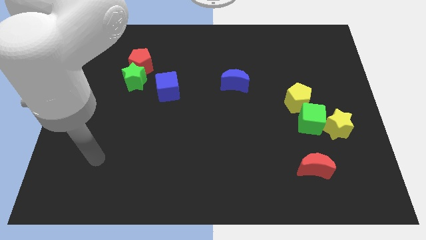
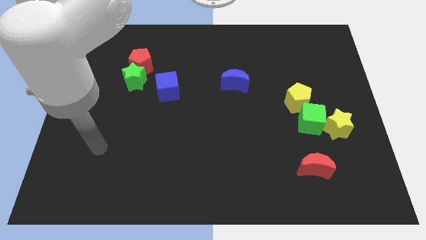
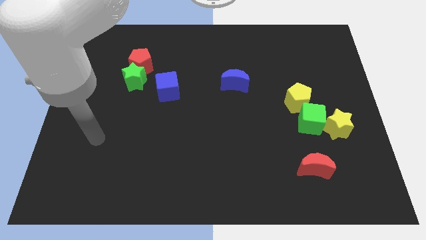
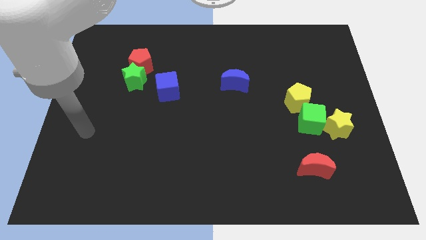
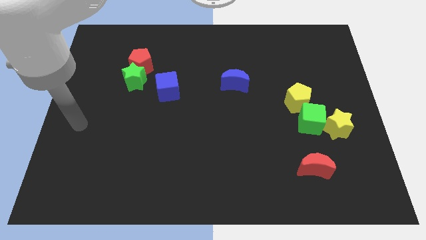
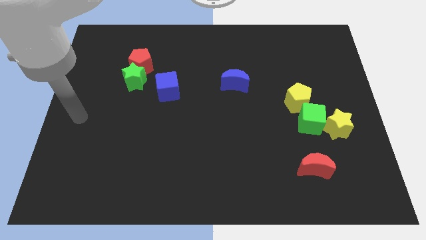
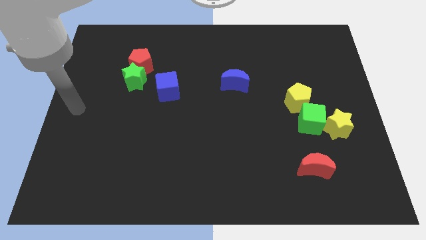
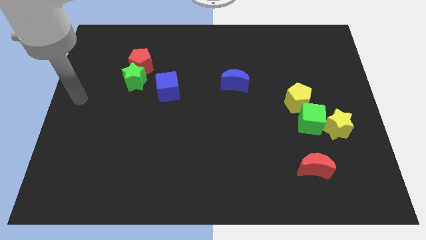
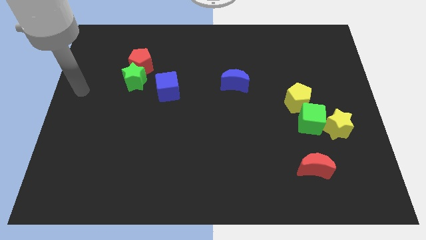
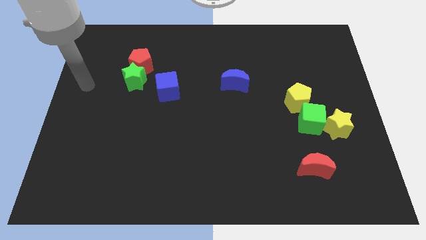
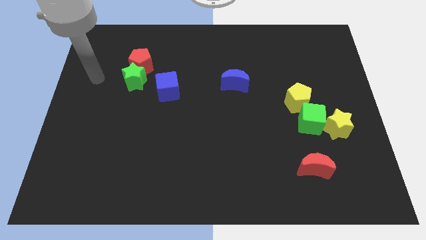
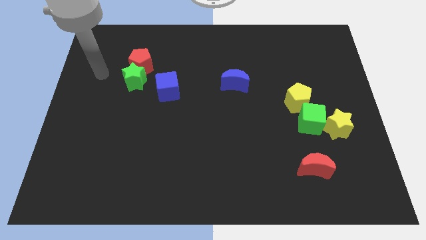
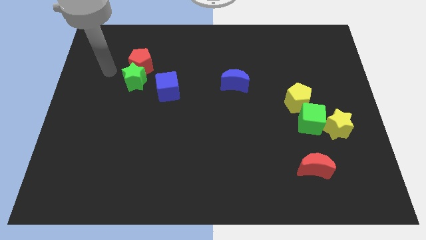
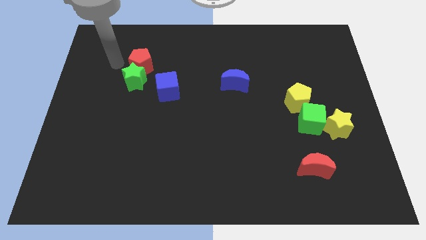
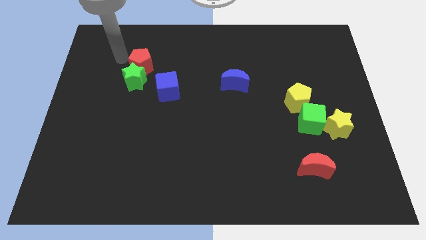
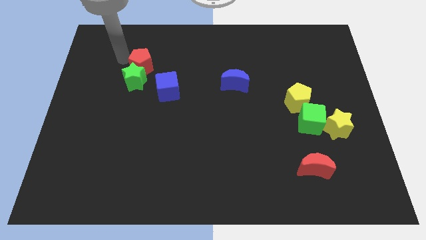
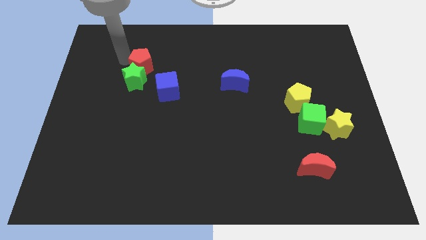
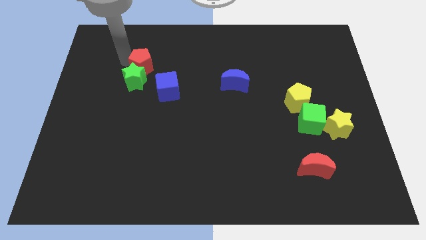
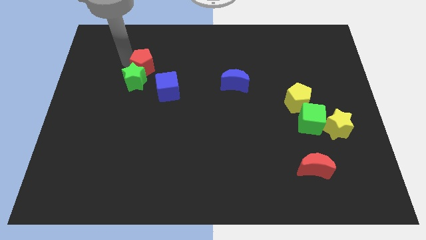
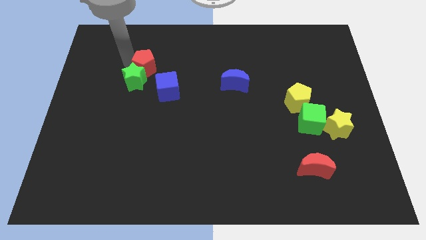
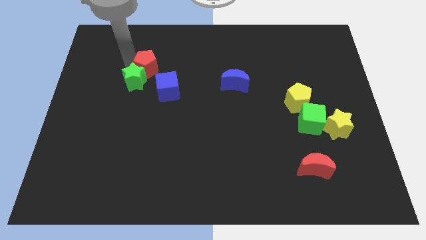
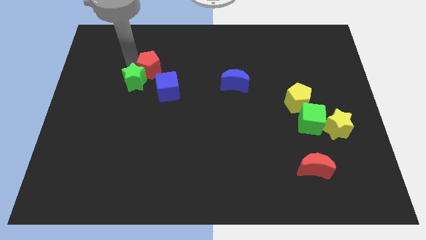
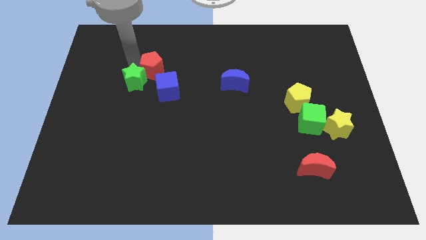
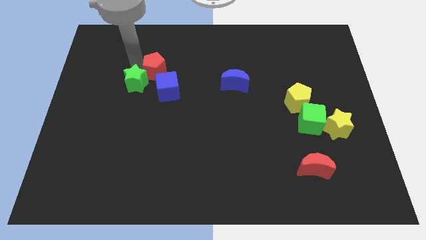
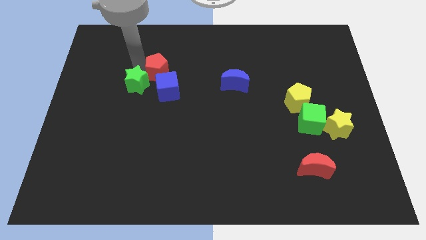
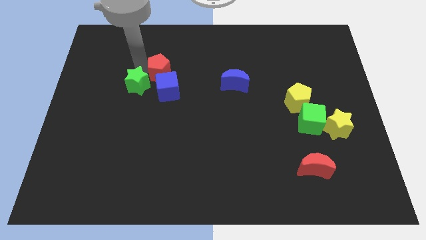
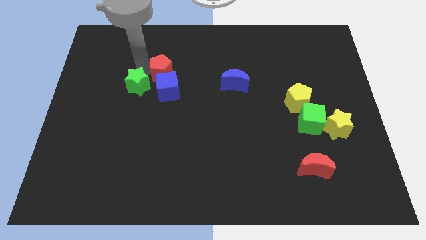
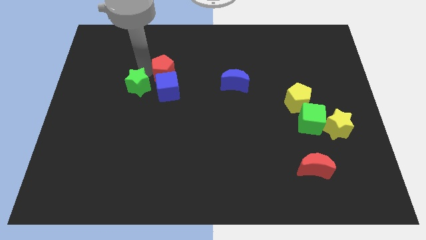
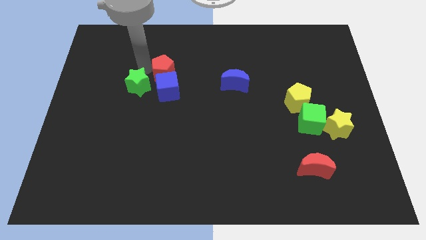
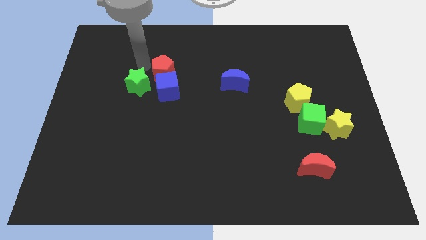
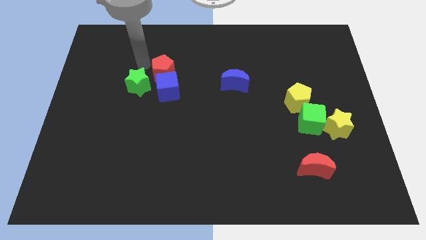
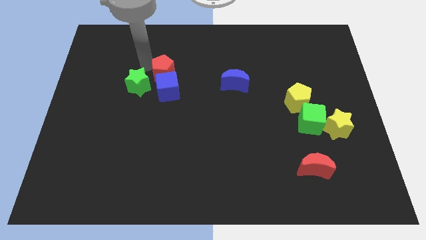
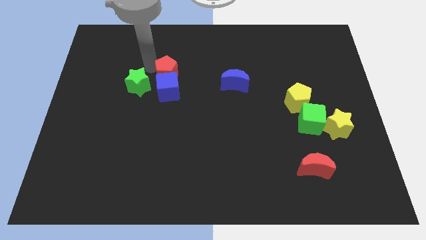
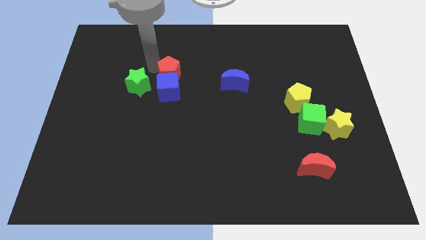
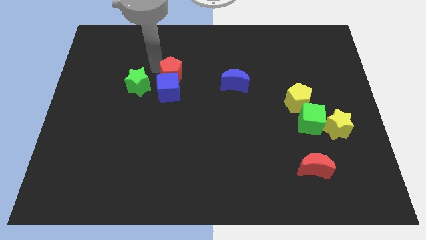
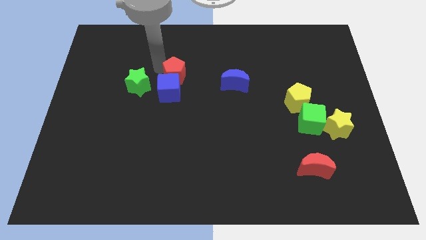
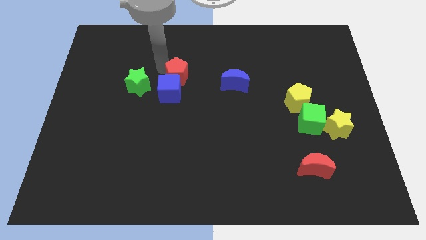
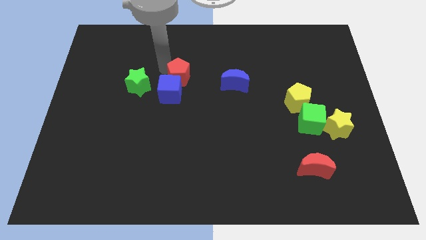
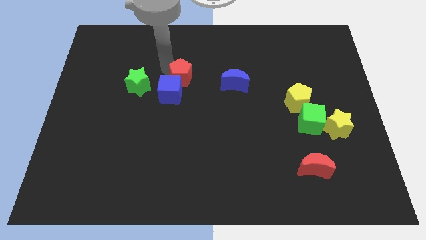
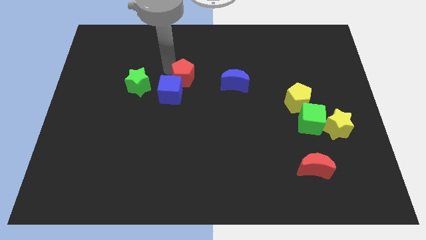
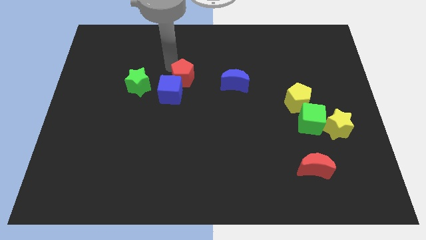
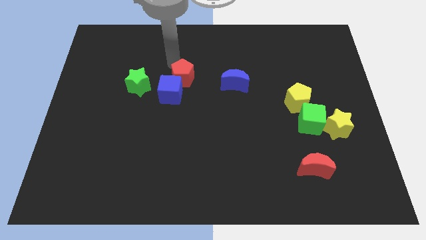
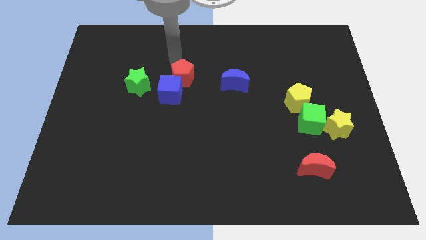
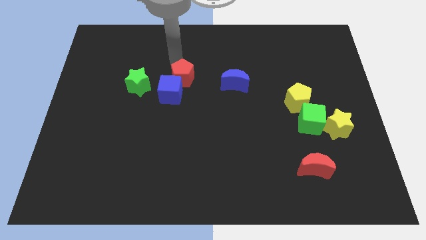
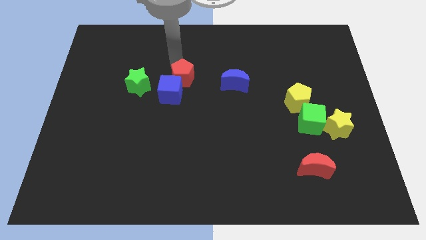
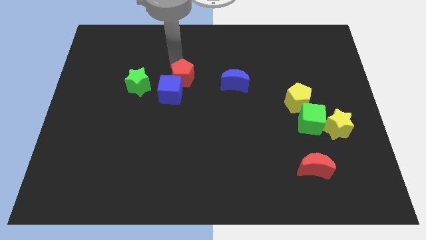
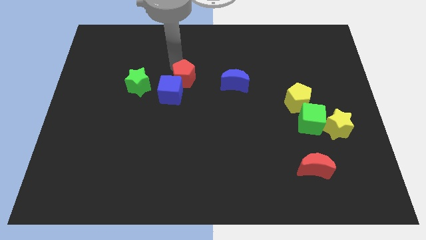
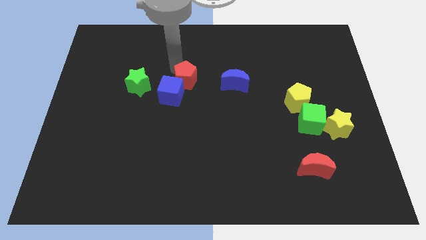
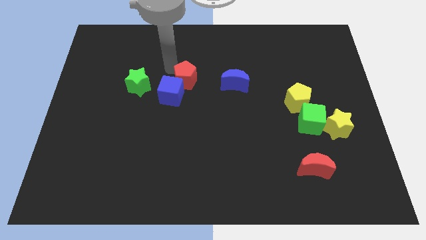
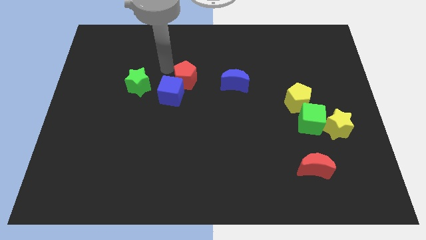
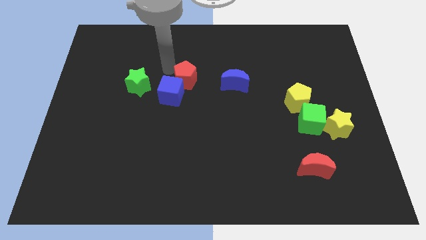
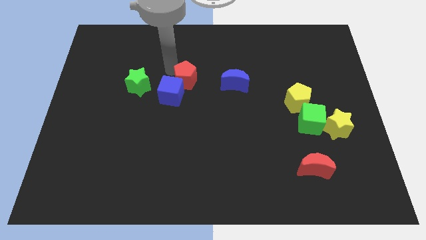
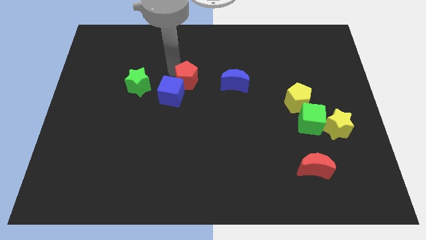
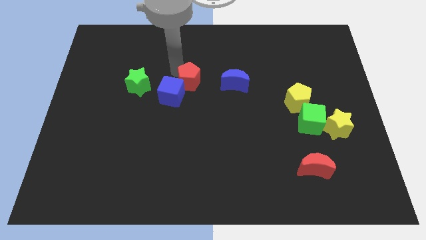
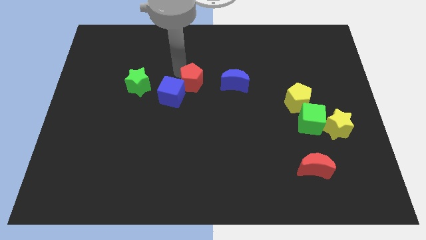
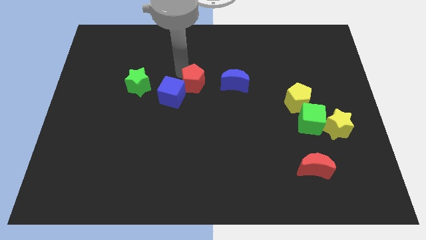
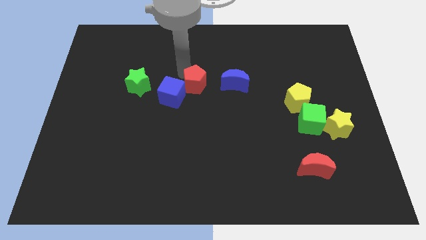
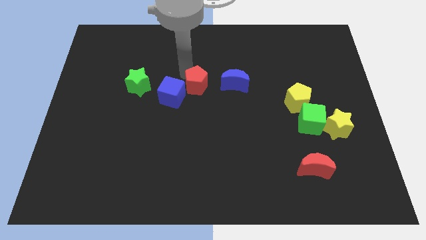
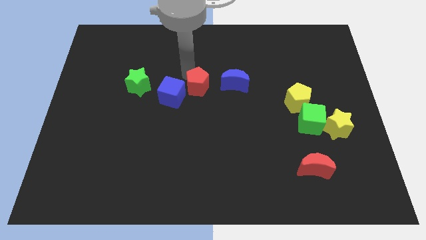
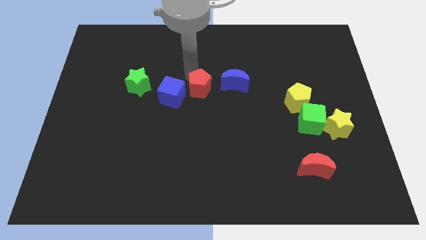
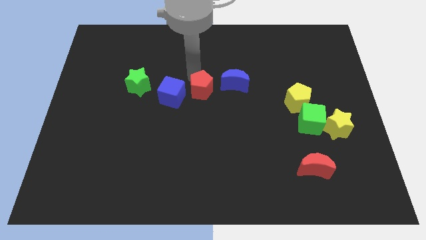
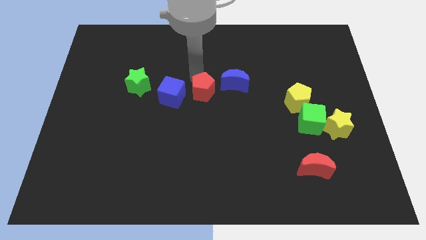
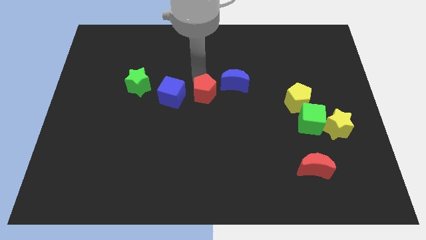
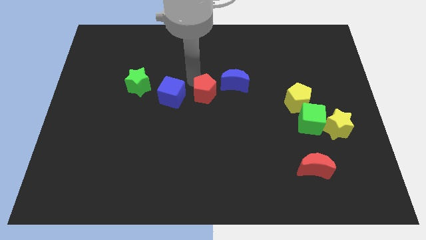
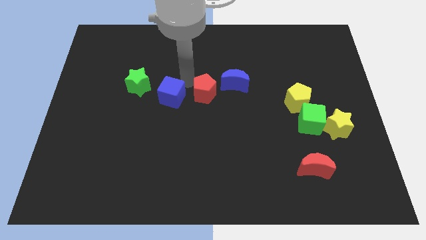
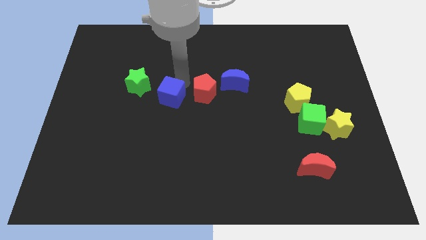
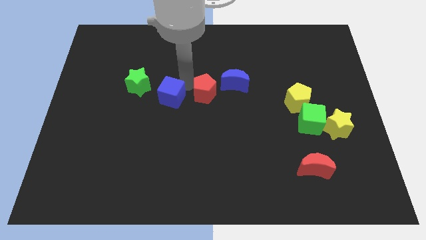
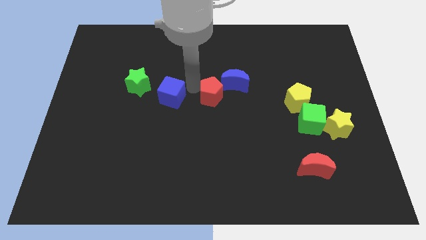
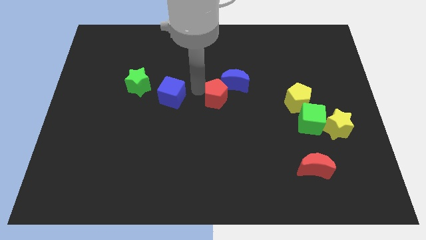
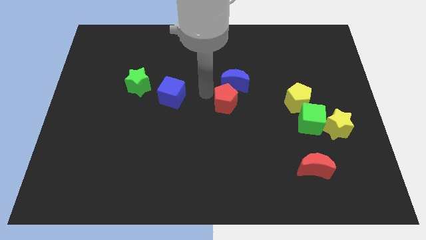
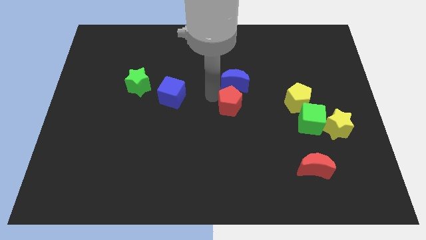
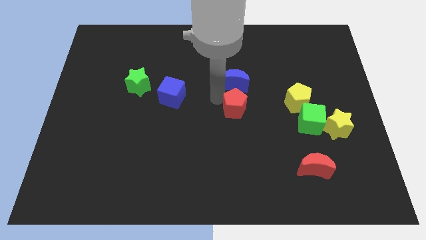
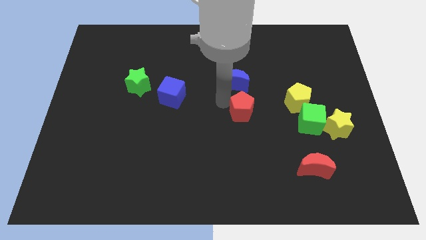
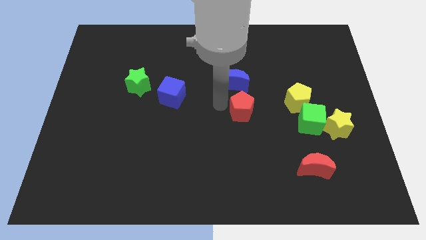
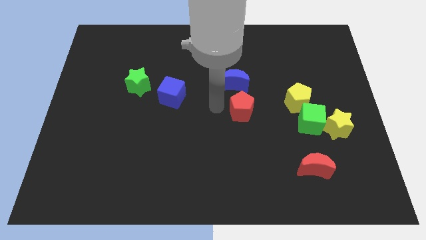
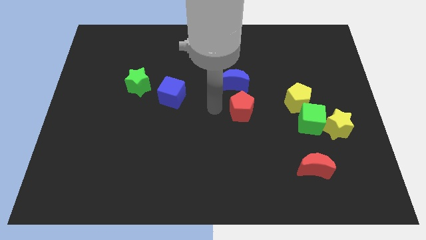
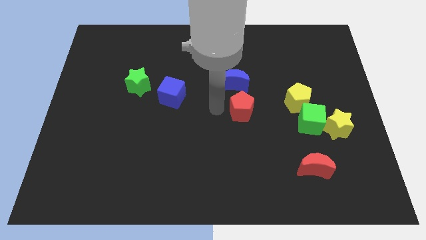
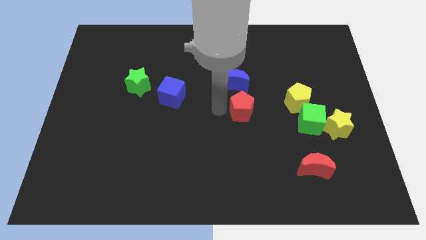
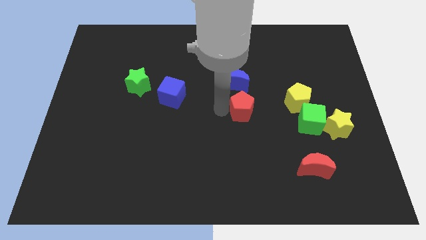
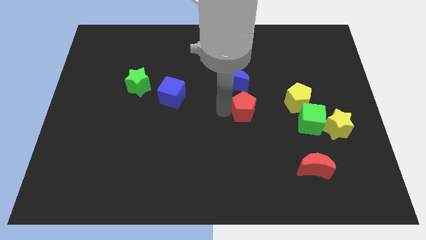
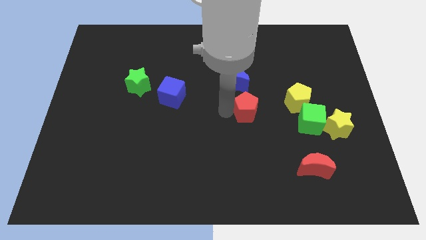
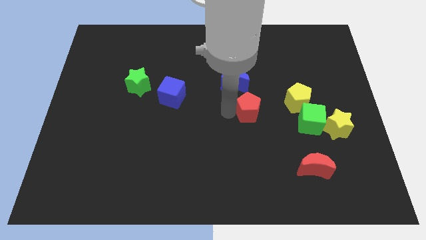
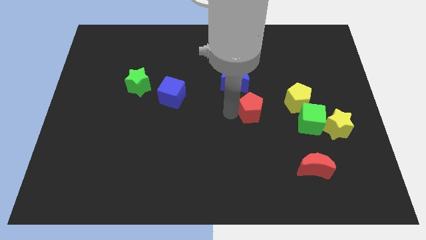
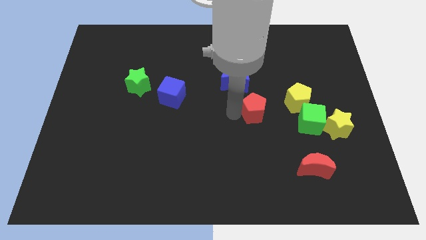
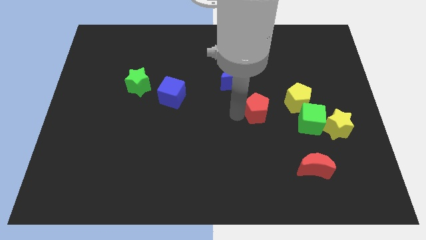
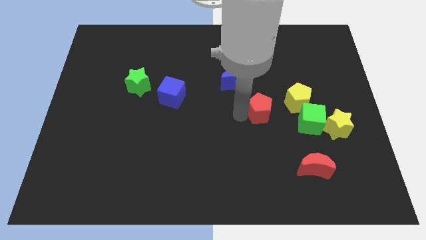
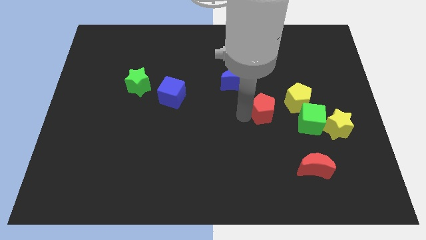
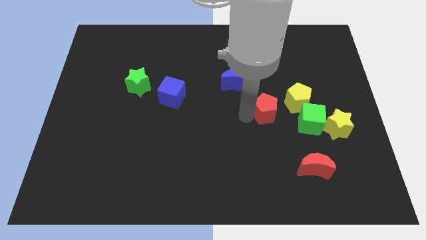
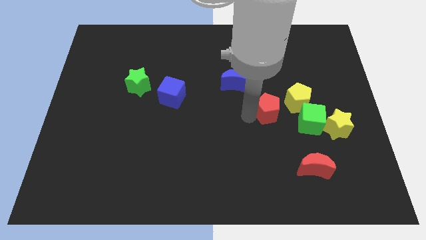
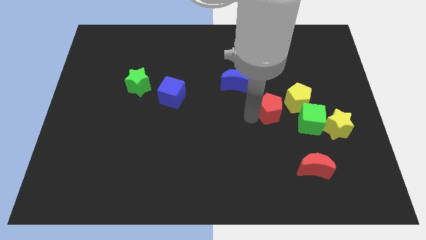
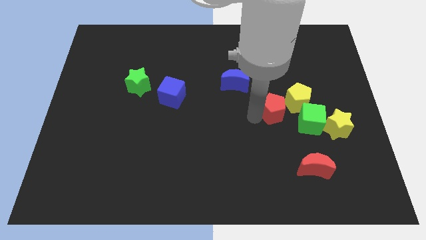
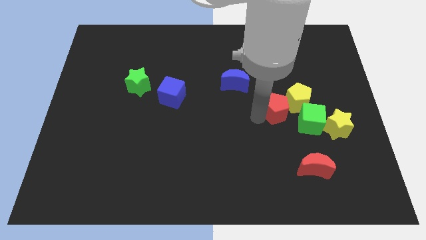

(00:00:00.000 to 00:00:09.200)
put the red pentagon close to the yellow pentagon
